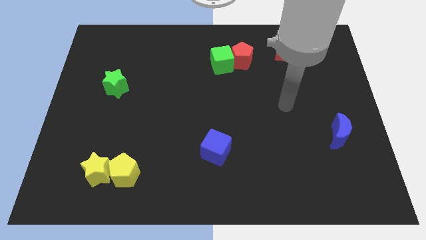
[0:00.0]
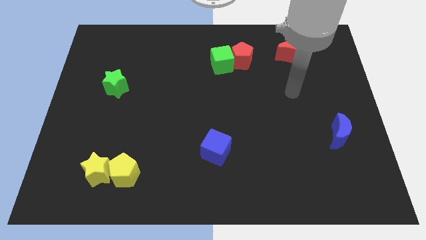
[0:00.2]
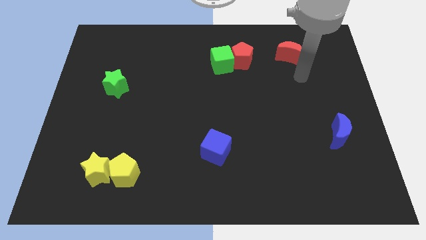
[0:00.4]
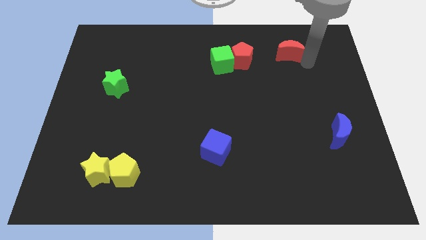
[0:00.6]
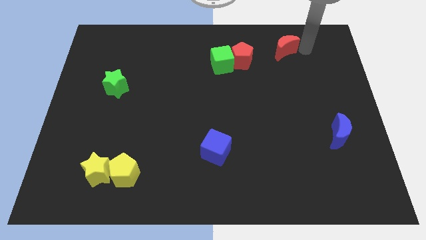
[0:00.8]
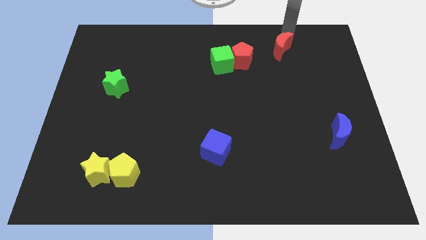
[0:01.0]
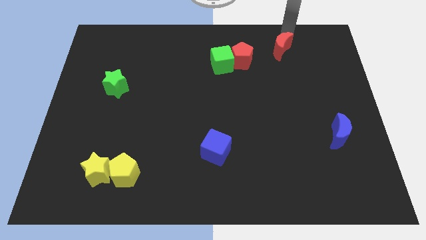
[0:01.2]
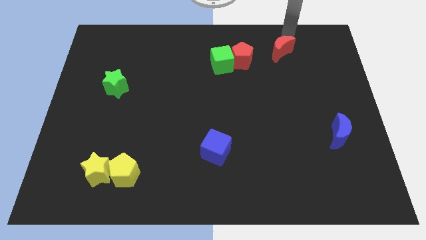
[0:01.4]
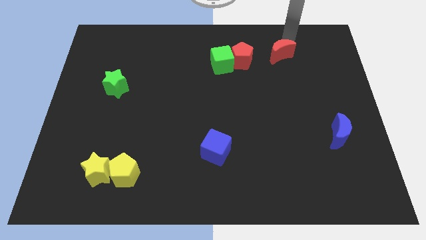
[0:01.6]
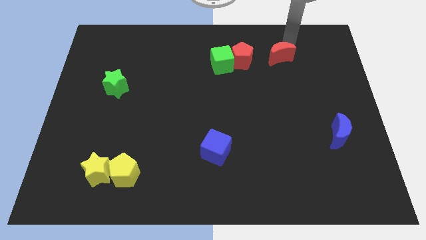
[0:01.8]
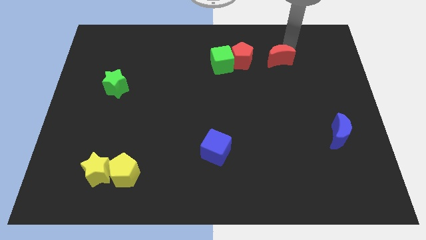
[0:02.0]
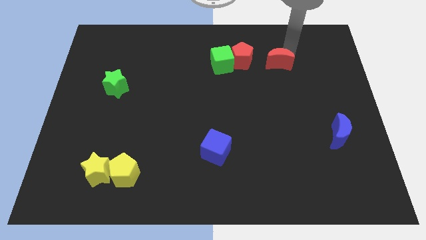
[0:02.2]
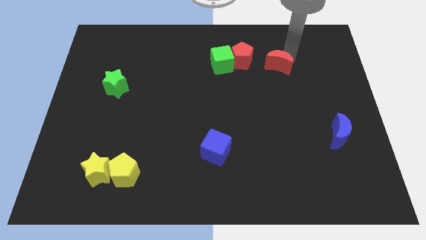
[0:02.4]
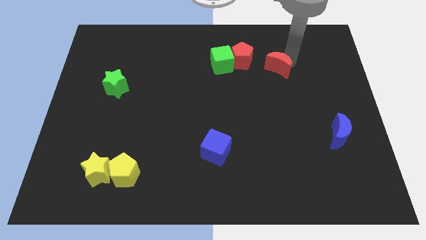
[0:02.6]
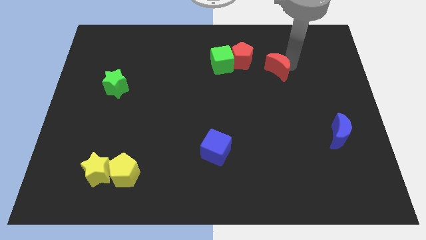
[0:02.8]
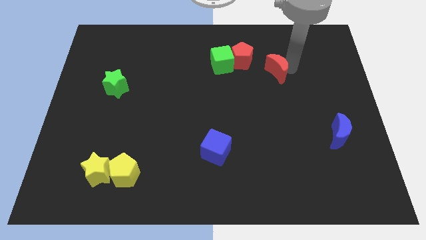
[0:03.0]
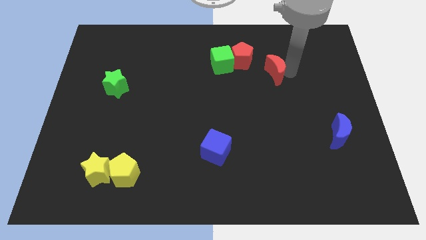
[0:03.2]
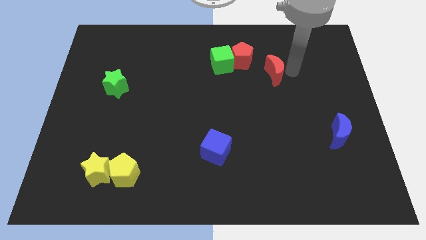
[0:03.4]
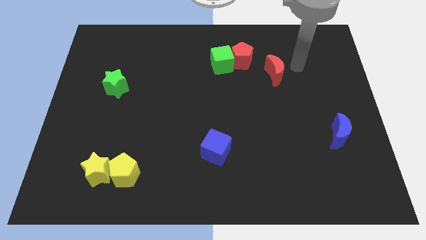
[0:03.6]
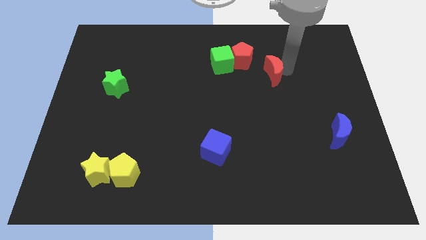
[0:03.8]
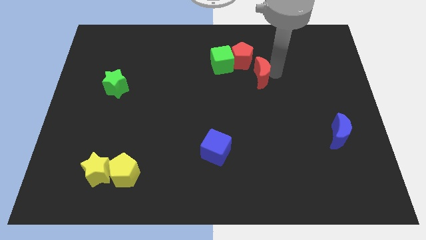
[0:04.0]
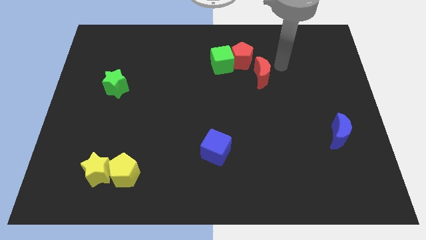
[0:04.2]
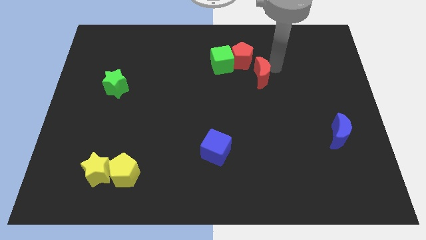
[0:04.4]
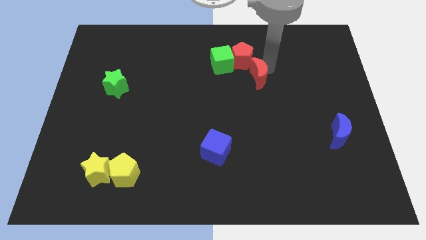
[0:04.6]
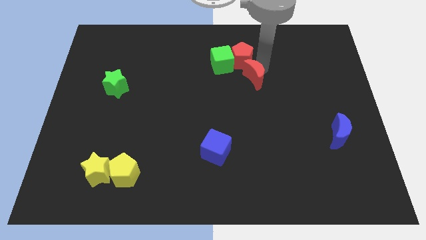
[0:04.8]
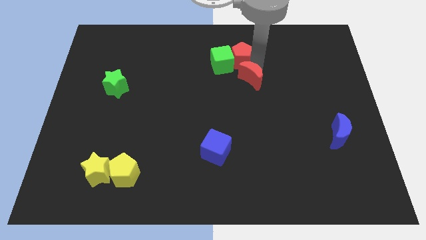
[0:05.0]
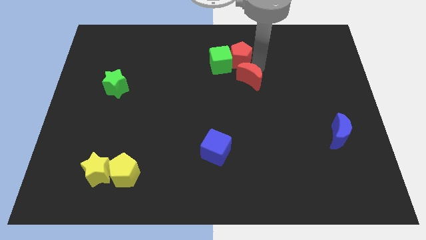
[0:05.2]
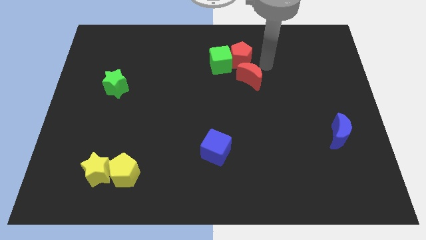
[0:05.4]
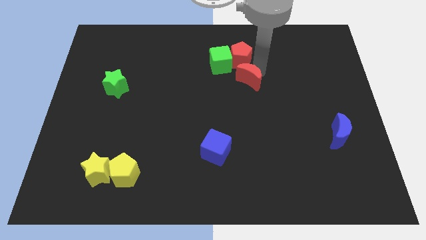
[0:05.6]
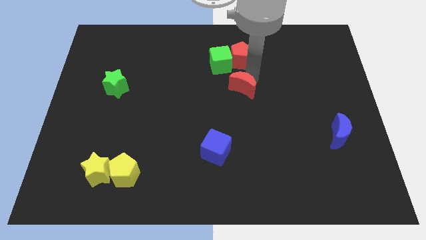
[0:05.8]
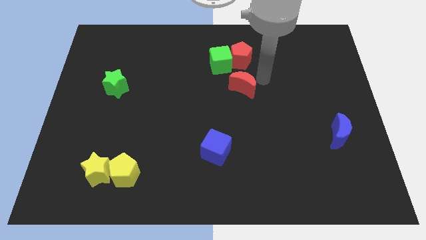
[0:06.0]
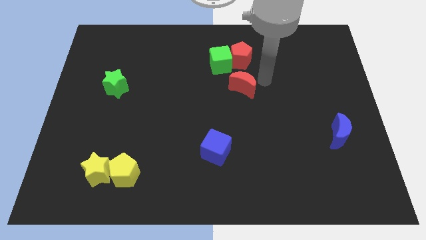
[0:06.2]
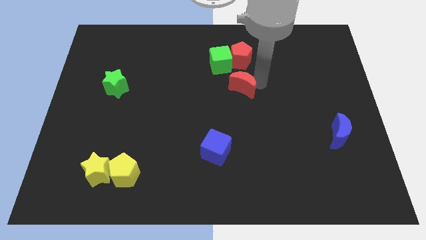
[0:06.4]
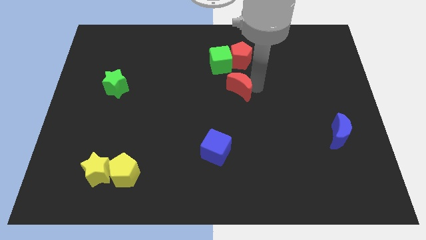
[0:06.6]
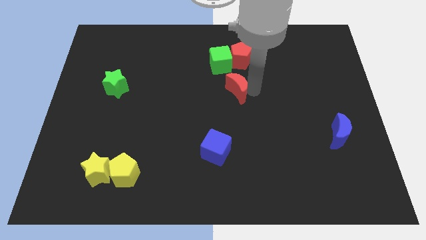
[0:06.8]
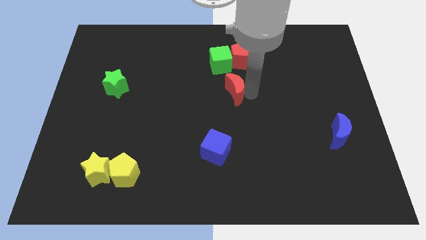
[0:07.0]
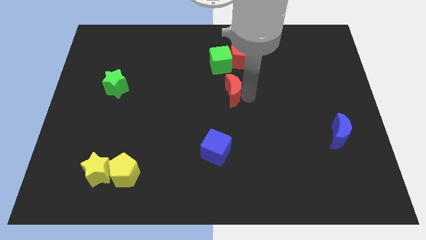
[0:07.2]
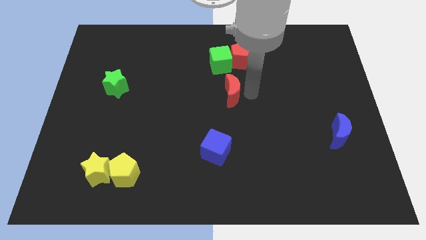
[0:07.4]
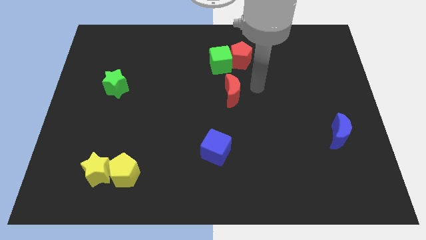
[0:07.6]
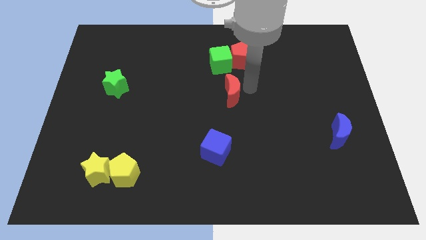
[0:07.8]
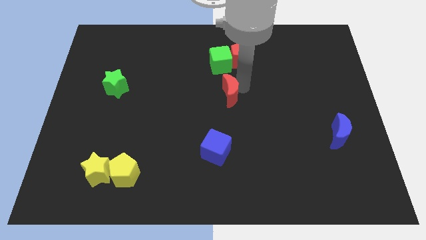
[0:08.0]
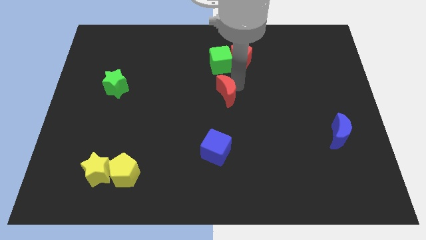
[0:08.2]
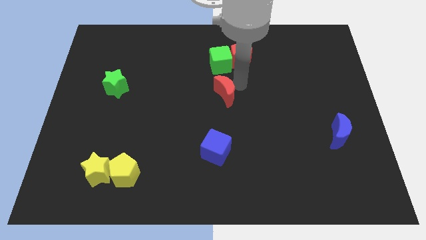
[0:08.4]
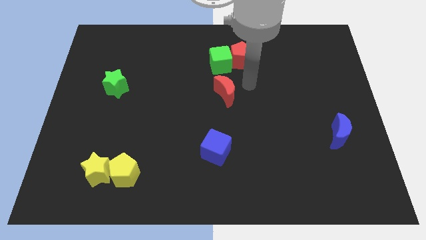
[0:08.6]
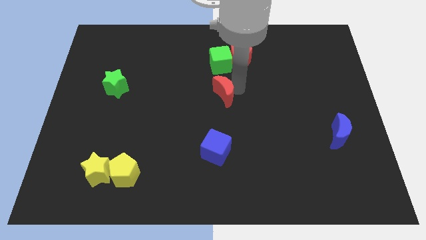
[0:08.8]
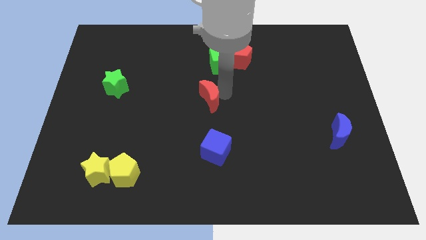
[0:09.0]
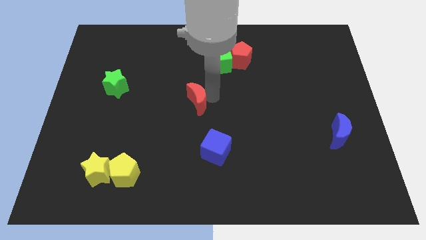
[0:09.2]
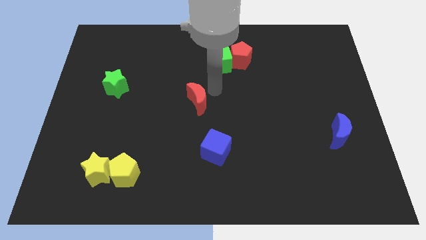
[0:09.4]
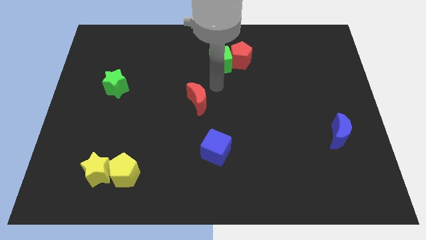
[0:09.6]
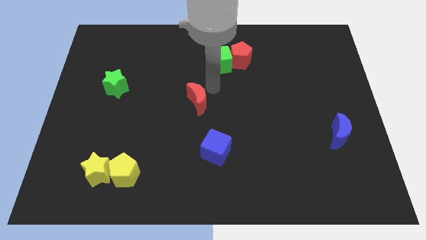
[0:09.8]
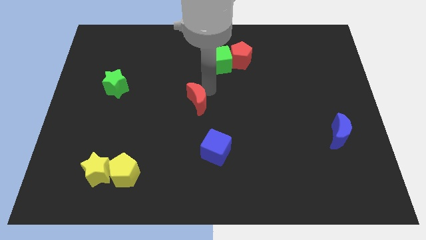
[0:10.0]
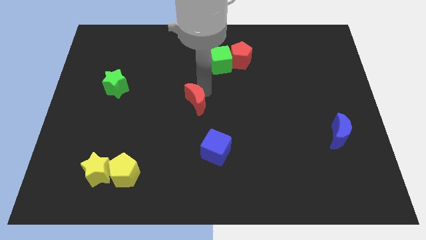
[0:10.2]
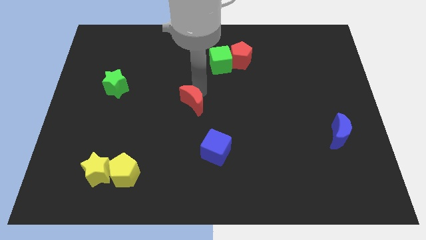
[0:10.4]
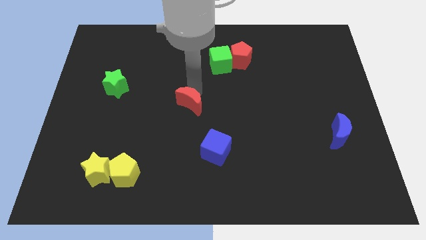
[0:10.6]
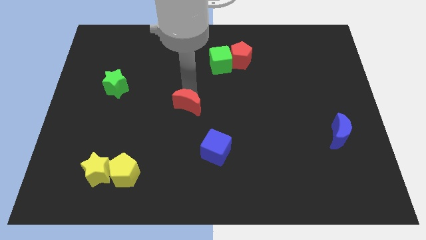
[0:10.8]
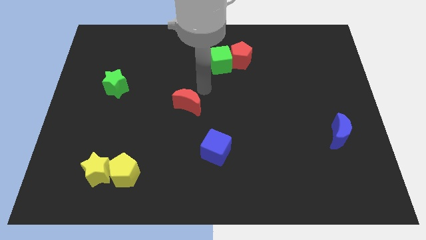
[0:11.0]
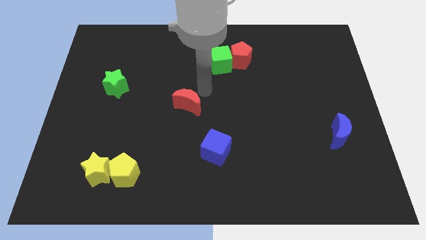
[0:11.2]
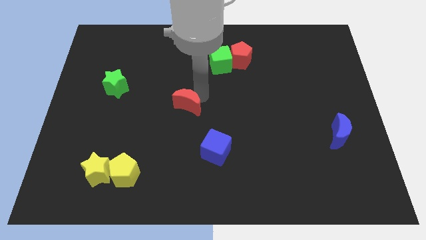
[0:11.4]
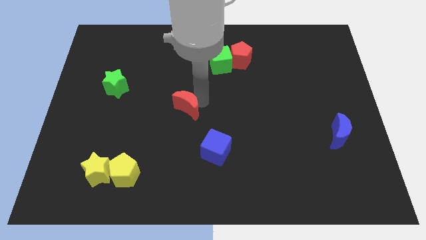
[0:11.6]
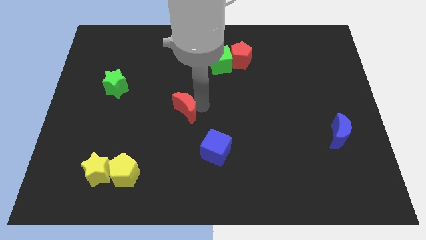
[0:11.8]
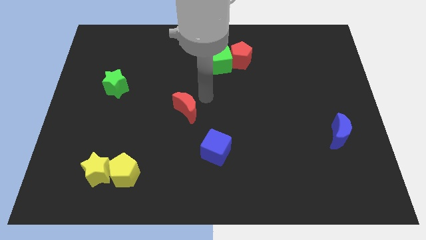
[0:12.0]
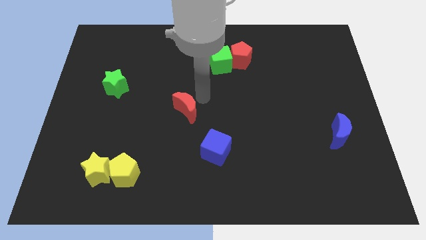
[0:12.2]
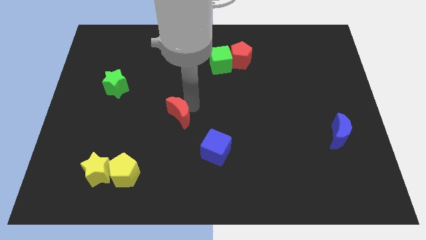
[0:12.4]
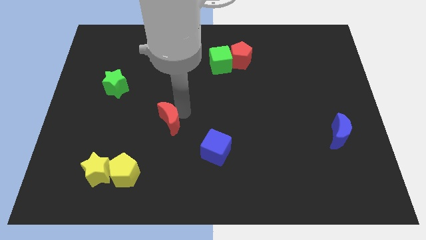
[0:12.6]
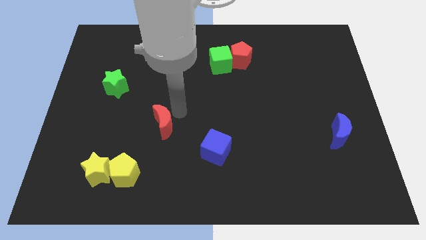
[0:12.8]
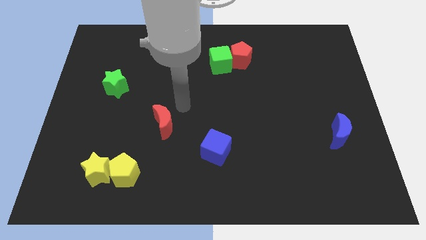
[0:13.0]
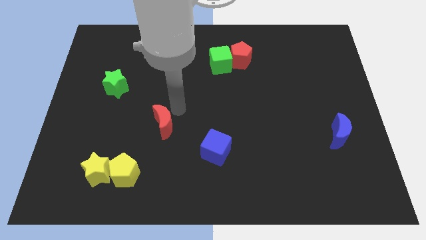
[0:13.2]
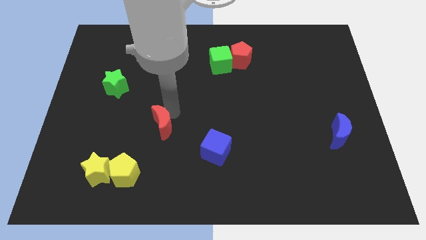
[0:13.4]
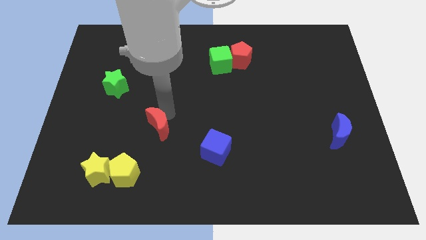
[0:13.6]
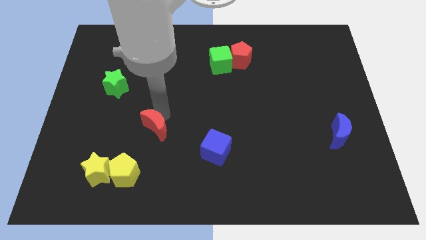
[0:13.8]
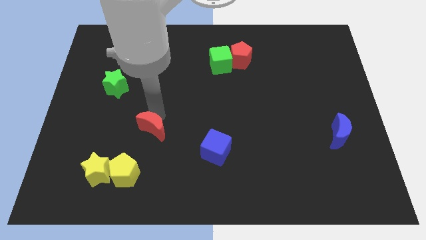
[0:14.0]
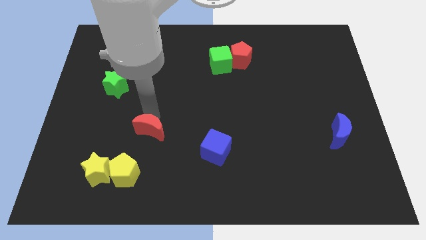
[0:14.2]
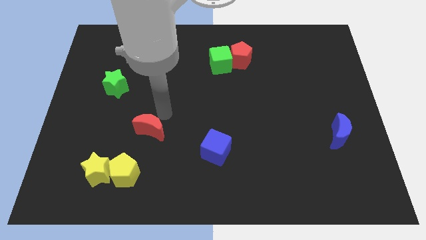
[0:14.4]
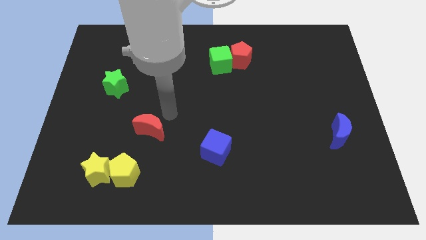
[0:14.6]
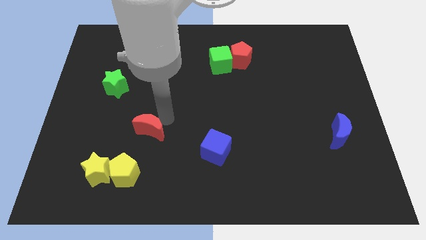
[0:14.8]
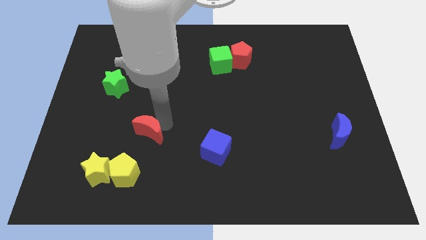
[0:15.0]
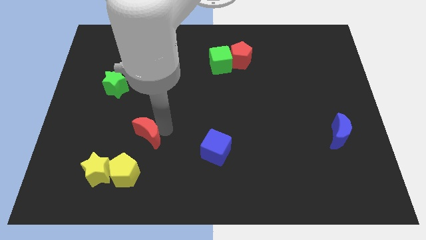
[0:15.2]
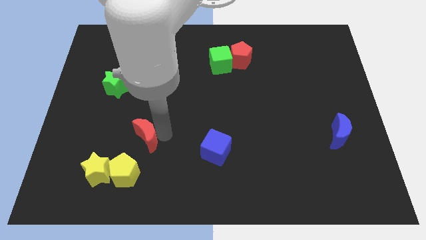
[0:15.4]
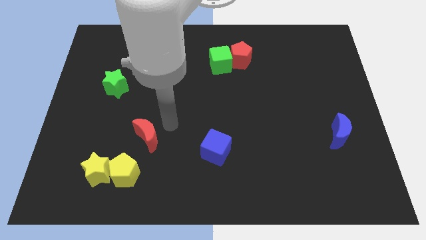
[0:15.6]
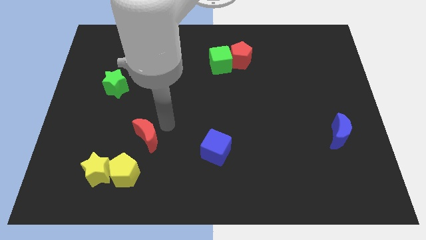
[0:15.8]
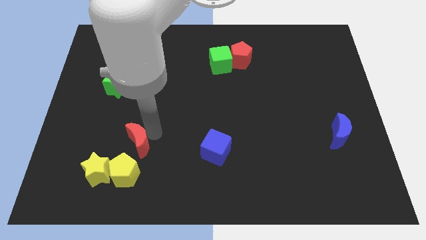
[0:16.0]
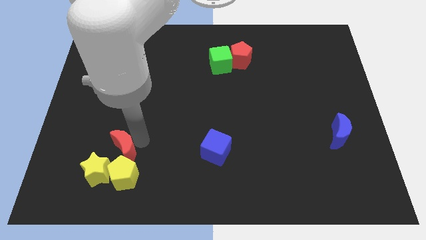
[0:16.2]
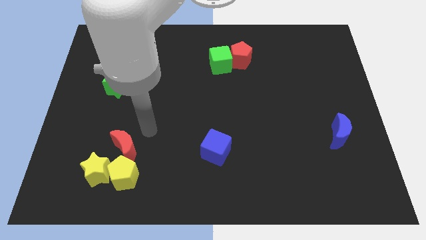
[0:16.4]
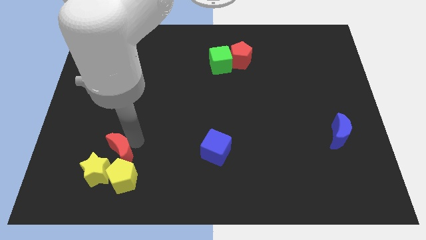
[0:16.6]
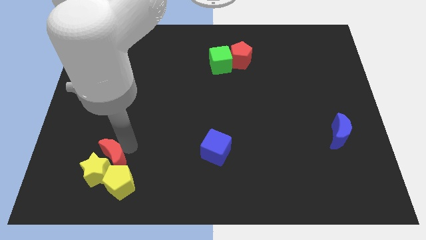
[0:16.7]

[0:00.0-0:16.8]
push the red moon close to the yellow star
